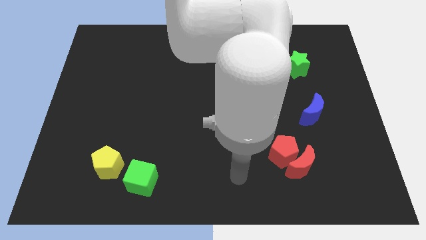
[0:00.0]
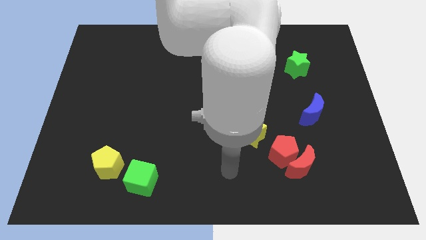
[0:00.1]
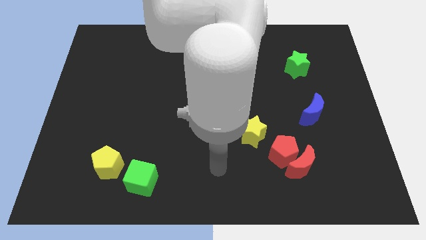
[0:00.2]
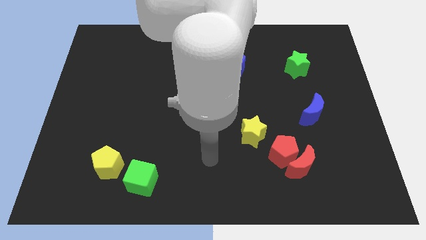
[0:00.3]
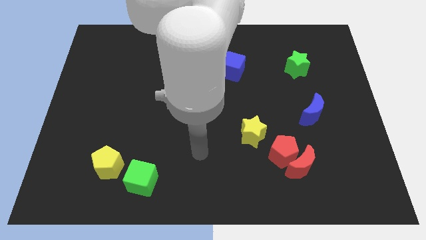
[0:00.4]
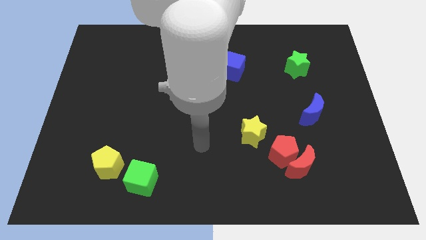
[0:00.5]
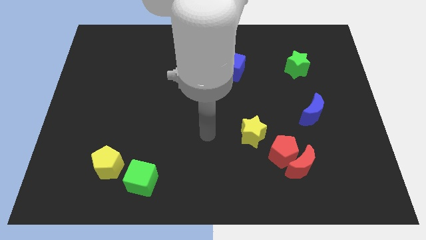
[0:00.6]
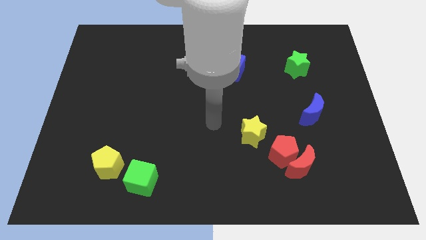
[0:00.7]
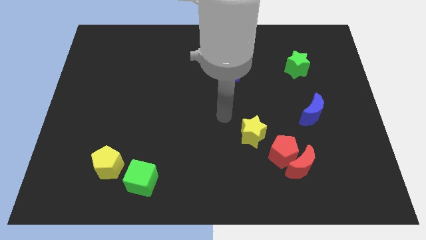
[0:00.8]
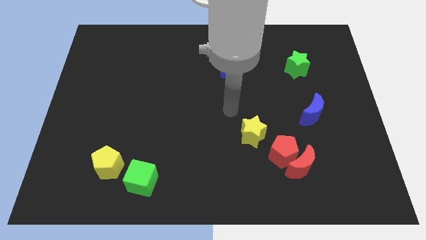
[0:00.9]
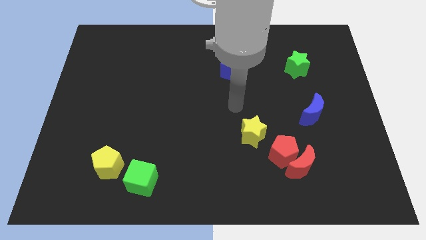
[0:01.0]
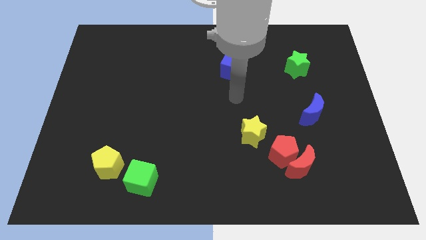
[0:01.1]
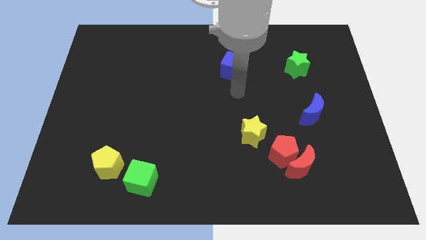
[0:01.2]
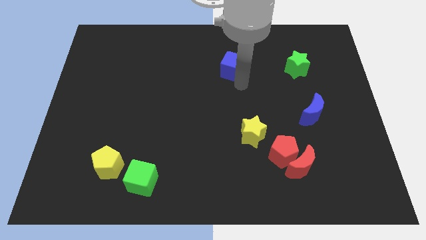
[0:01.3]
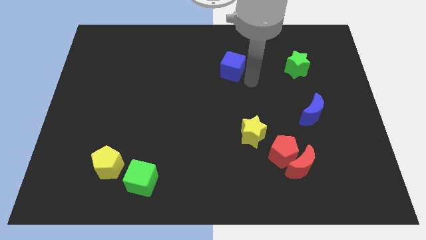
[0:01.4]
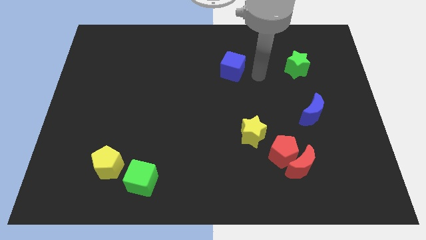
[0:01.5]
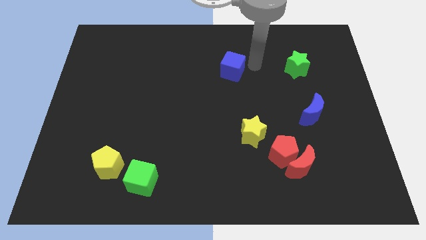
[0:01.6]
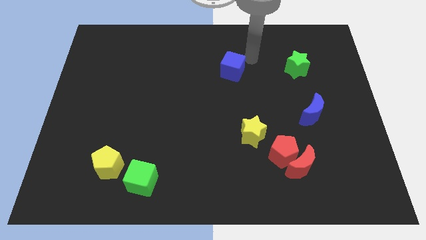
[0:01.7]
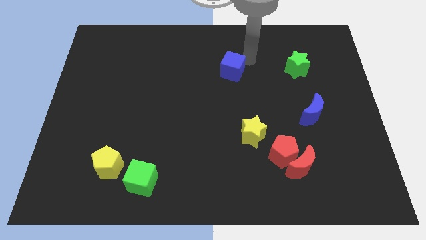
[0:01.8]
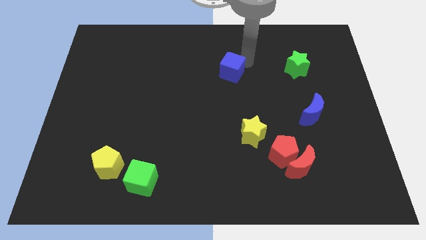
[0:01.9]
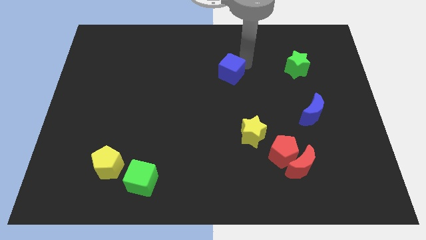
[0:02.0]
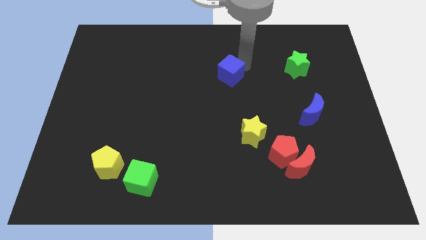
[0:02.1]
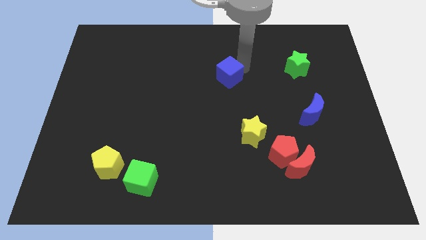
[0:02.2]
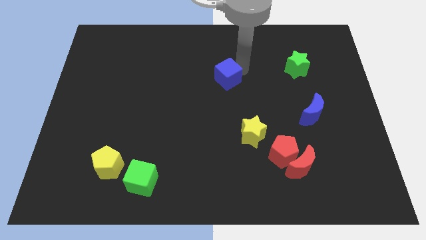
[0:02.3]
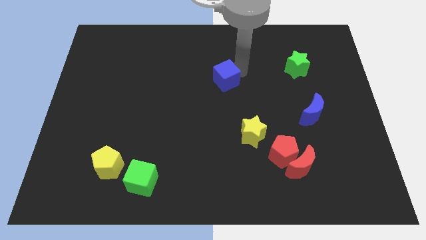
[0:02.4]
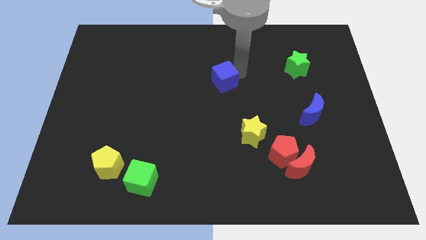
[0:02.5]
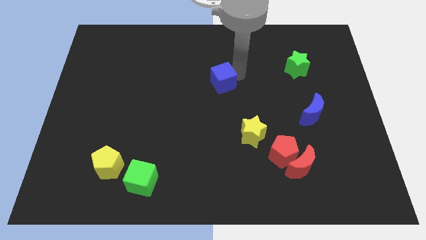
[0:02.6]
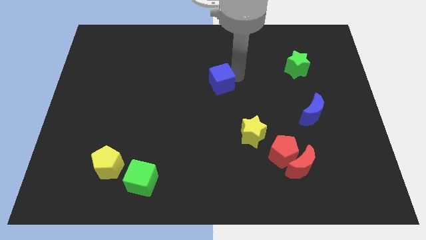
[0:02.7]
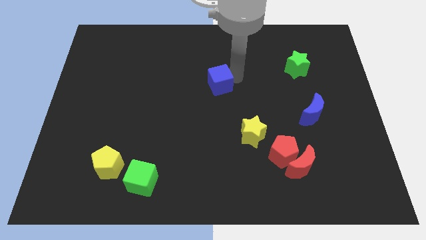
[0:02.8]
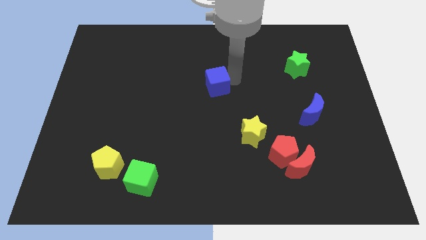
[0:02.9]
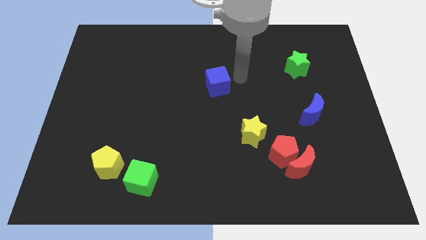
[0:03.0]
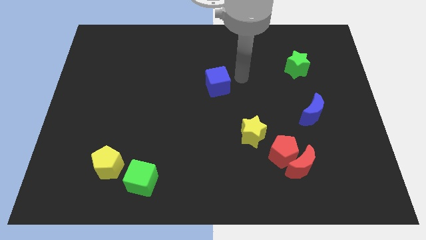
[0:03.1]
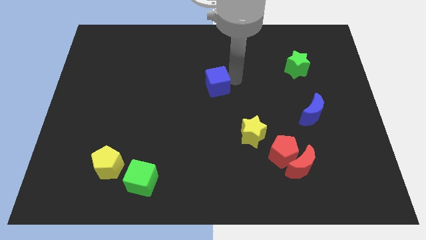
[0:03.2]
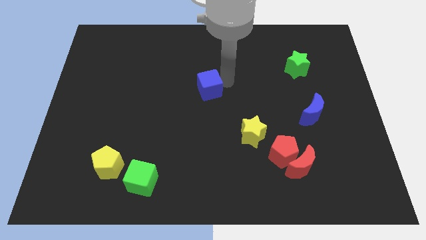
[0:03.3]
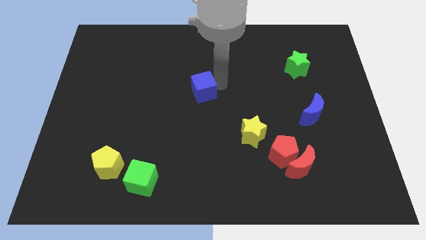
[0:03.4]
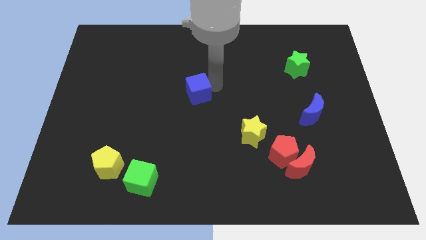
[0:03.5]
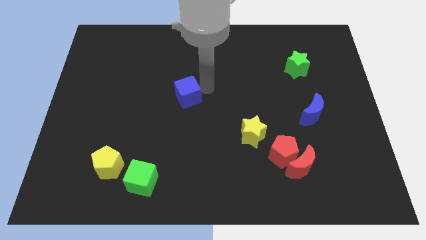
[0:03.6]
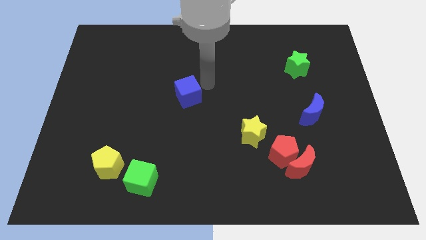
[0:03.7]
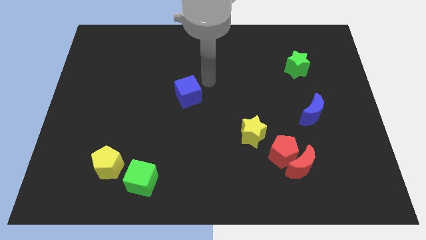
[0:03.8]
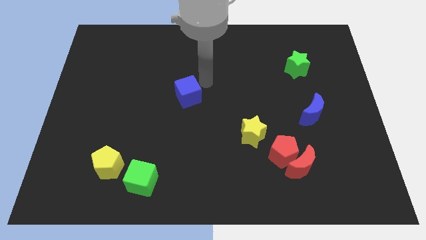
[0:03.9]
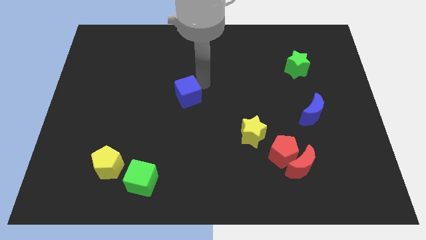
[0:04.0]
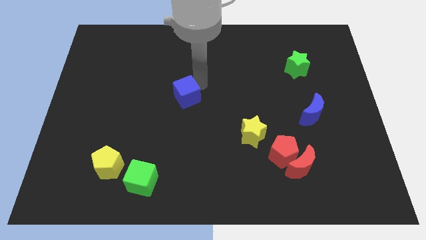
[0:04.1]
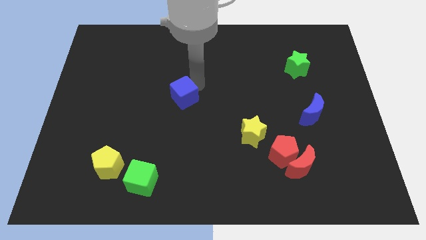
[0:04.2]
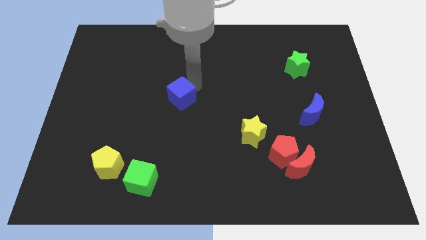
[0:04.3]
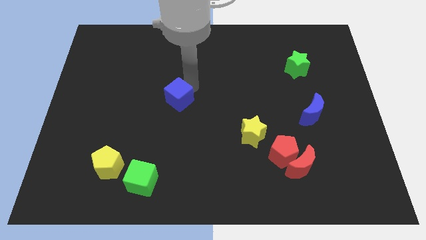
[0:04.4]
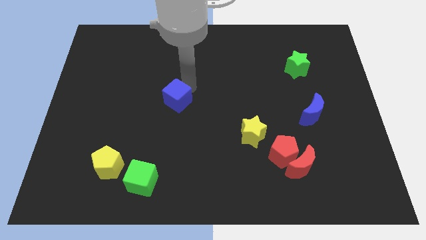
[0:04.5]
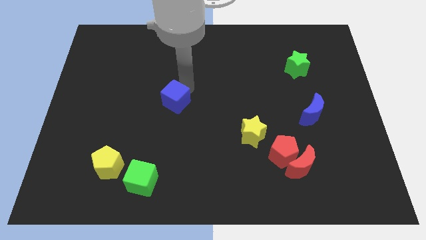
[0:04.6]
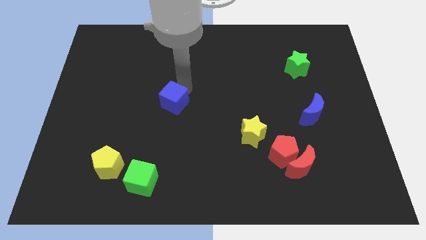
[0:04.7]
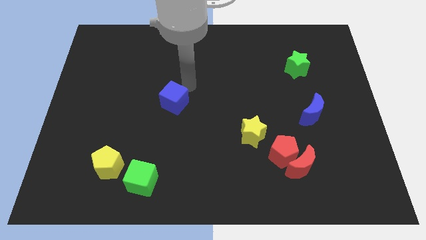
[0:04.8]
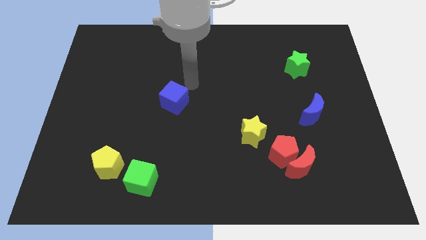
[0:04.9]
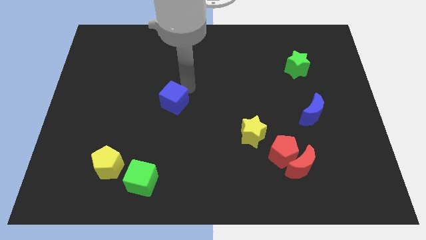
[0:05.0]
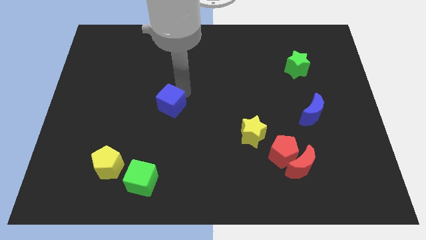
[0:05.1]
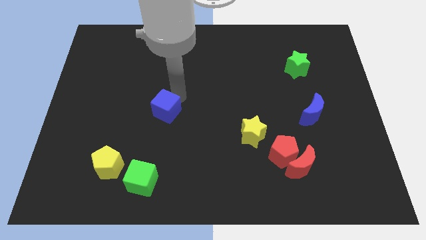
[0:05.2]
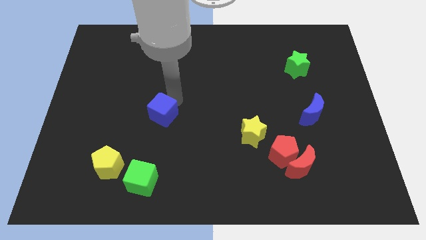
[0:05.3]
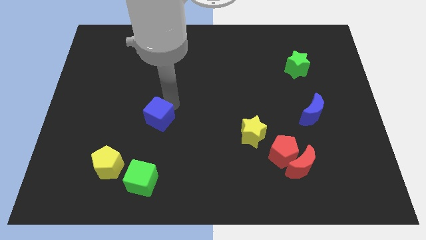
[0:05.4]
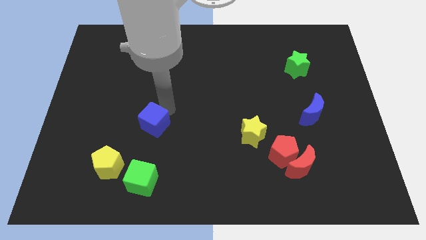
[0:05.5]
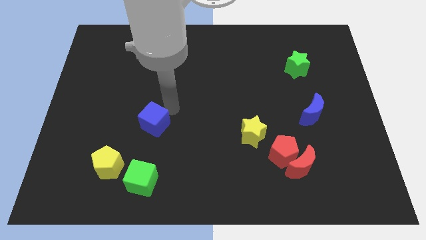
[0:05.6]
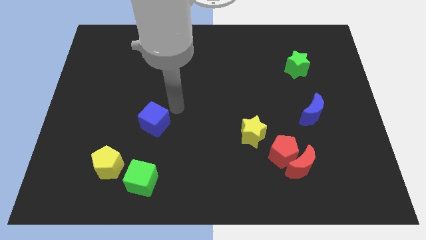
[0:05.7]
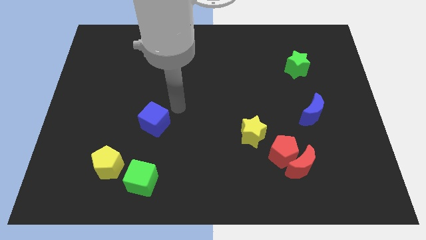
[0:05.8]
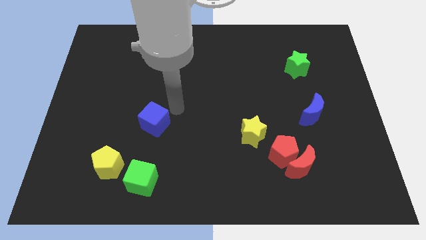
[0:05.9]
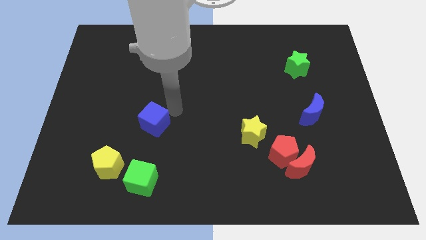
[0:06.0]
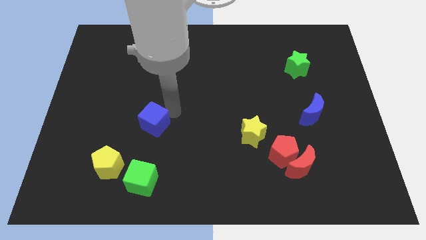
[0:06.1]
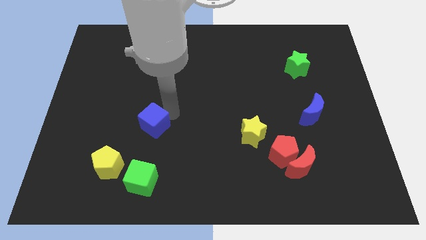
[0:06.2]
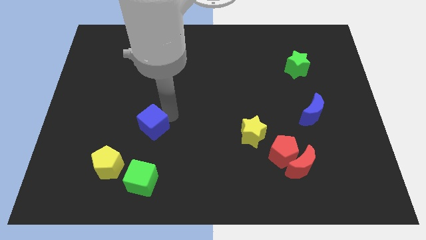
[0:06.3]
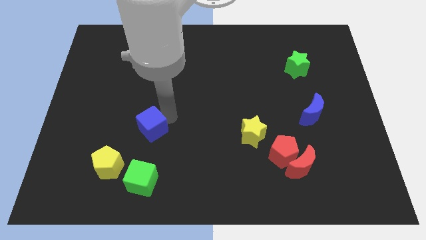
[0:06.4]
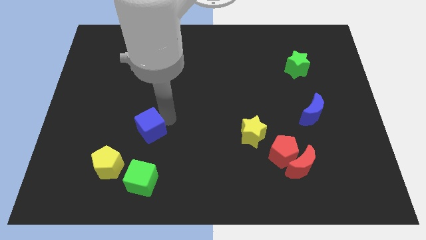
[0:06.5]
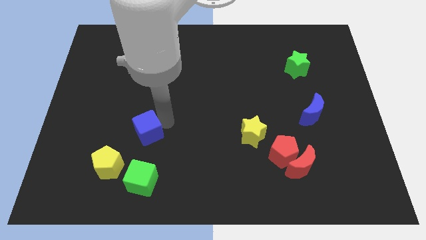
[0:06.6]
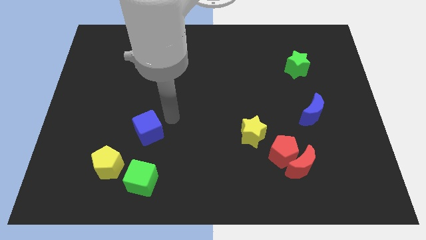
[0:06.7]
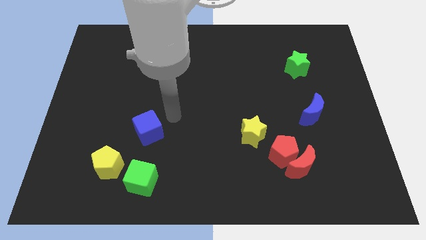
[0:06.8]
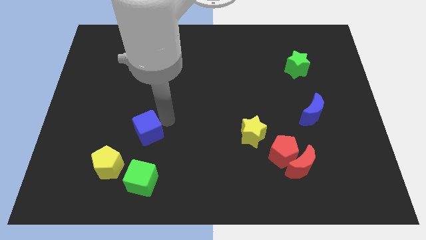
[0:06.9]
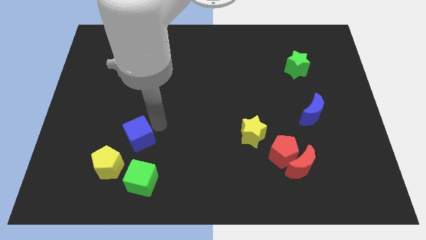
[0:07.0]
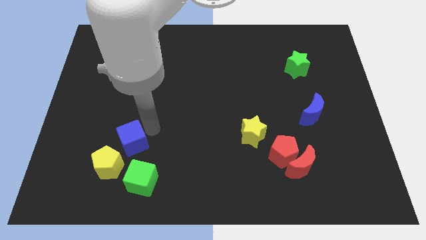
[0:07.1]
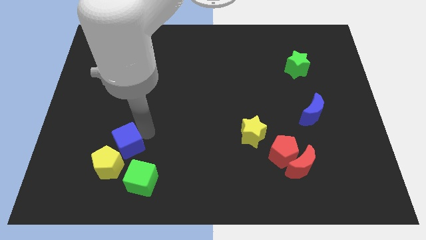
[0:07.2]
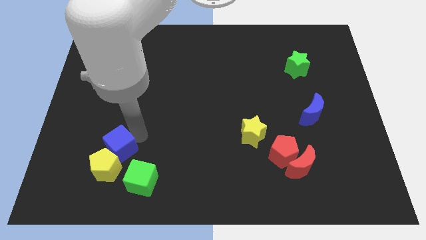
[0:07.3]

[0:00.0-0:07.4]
push the blue cube close to the yellow pentagon
